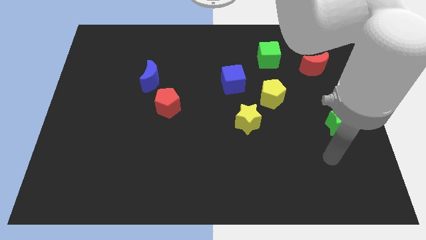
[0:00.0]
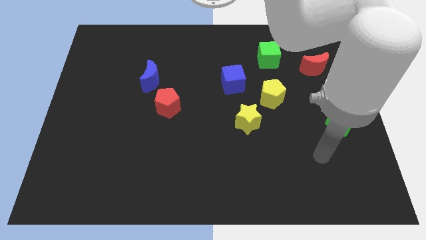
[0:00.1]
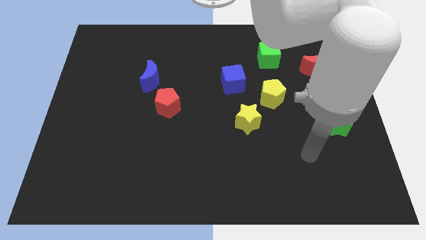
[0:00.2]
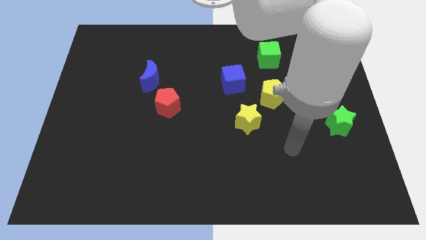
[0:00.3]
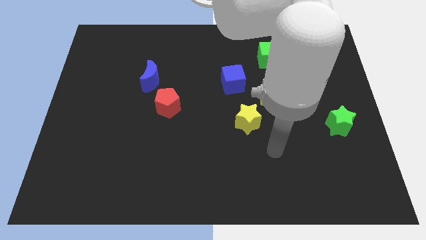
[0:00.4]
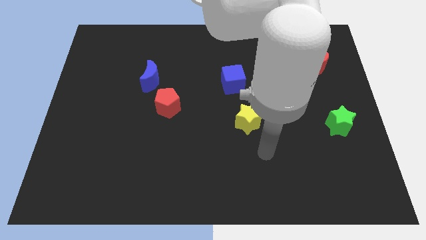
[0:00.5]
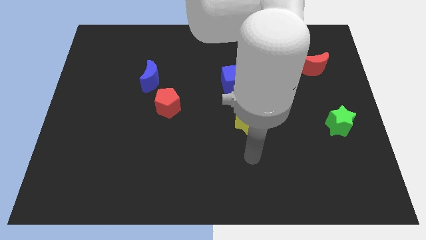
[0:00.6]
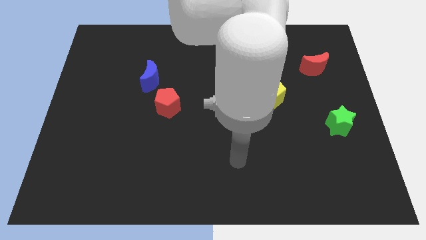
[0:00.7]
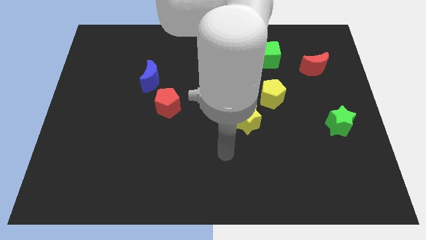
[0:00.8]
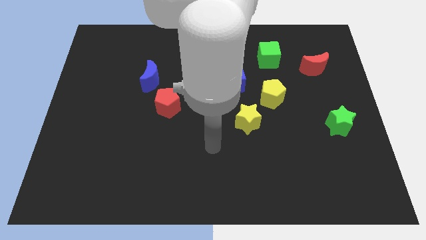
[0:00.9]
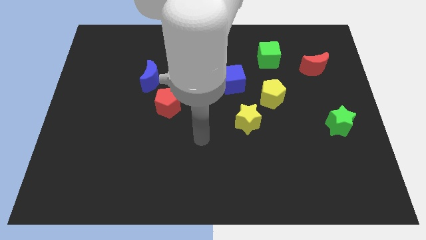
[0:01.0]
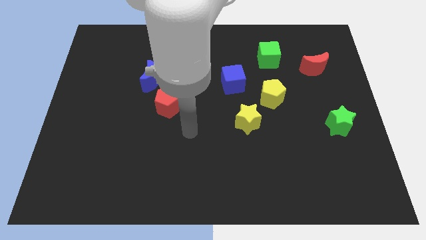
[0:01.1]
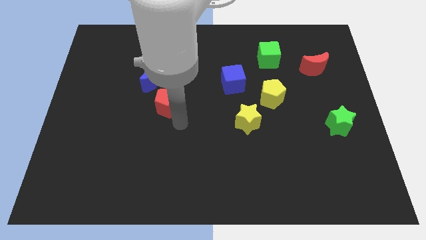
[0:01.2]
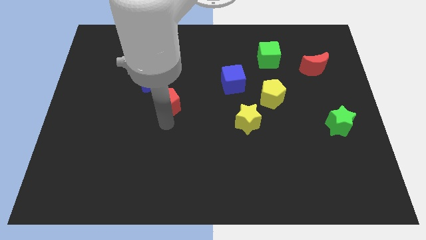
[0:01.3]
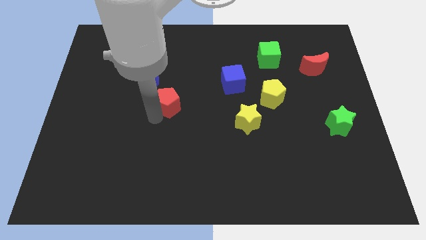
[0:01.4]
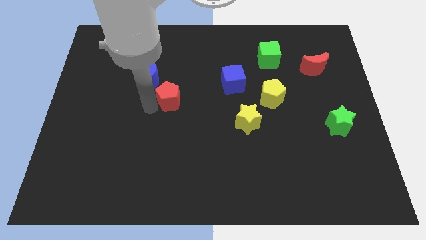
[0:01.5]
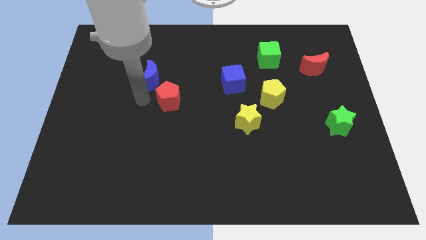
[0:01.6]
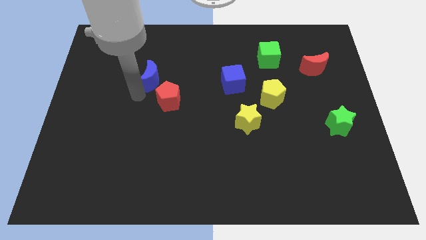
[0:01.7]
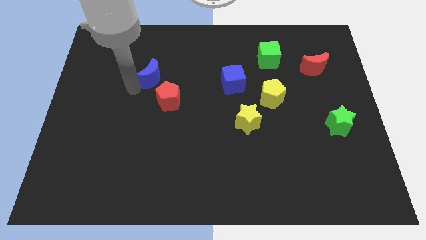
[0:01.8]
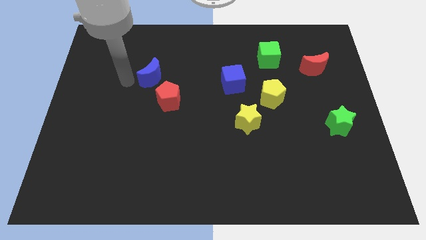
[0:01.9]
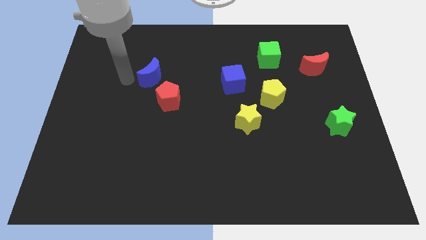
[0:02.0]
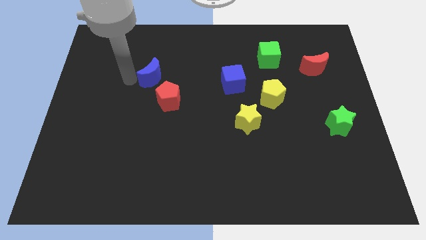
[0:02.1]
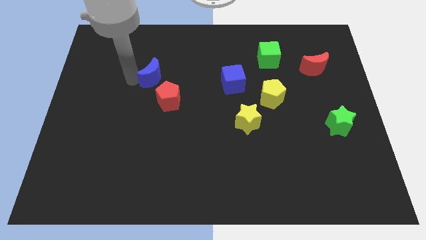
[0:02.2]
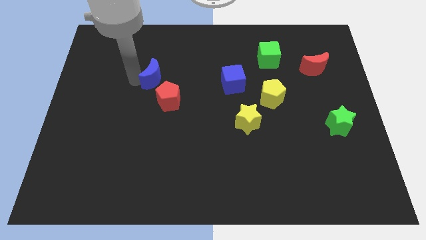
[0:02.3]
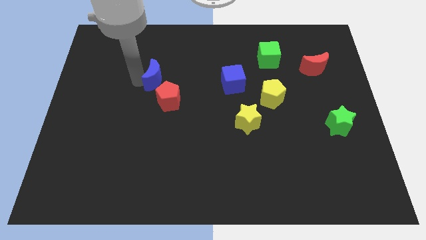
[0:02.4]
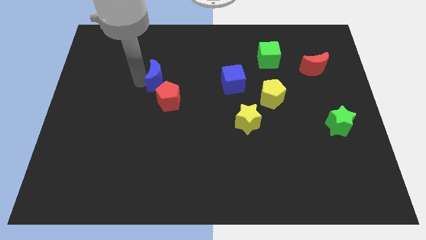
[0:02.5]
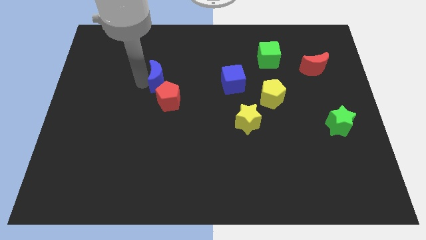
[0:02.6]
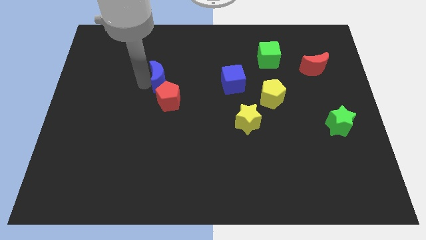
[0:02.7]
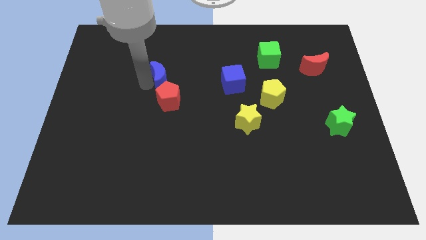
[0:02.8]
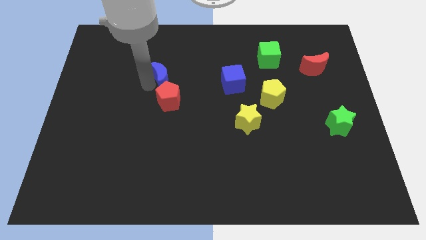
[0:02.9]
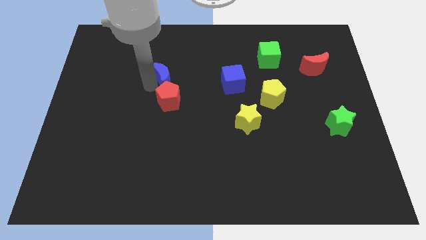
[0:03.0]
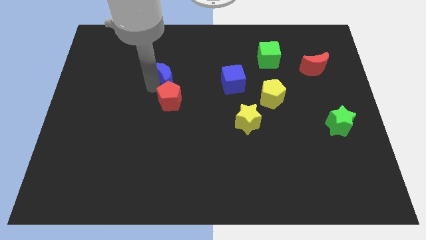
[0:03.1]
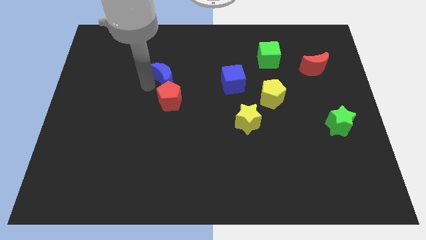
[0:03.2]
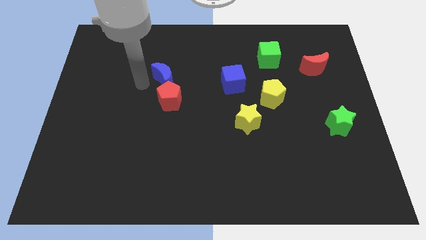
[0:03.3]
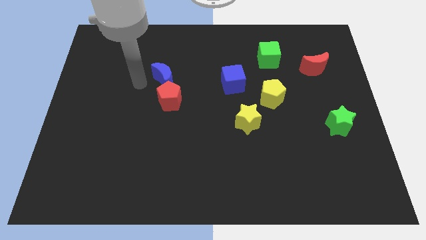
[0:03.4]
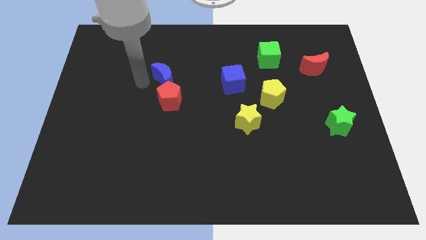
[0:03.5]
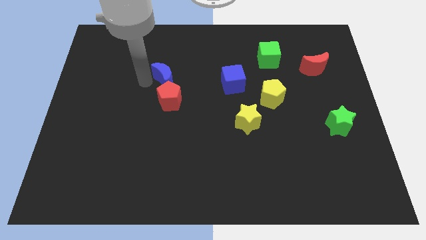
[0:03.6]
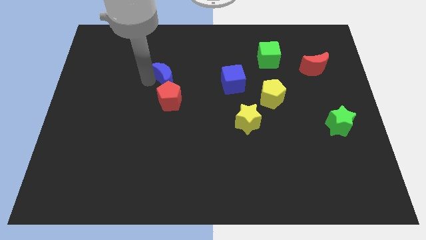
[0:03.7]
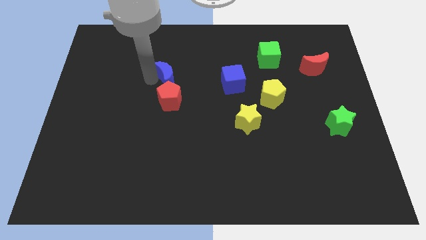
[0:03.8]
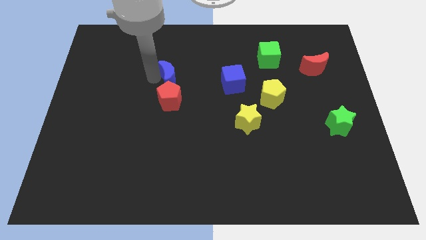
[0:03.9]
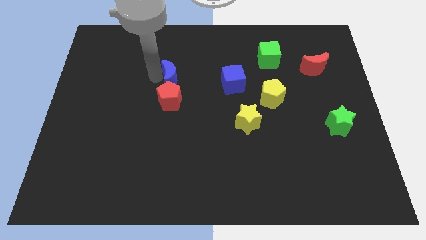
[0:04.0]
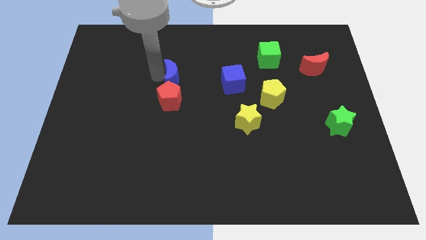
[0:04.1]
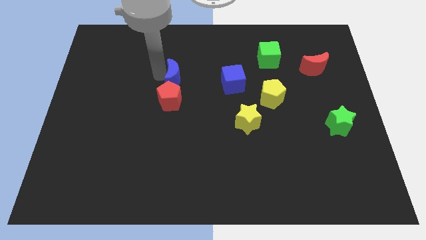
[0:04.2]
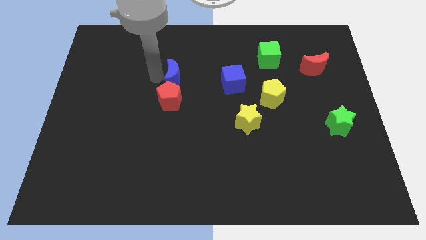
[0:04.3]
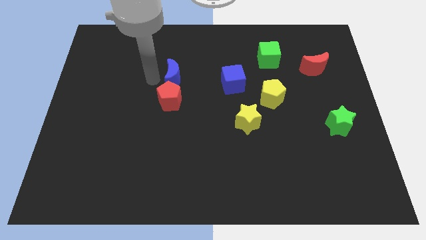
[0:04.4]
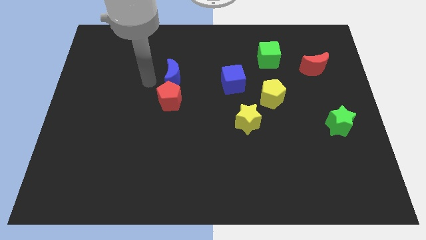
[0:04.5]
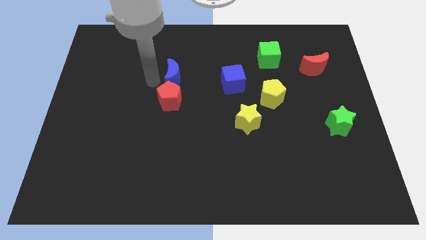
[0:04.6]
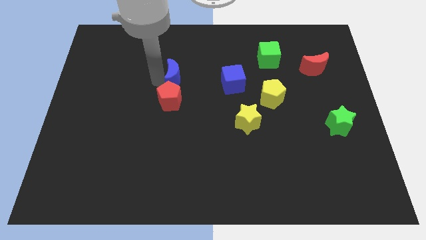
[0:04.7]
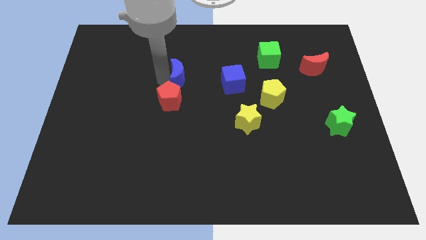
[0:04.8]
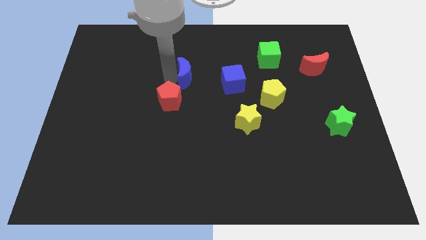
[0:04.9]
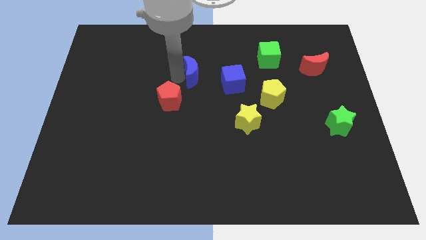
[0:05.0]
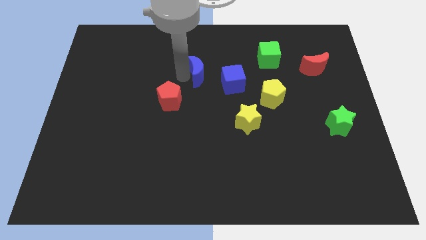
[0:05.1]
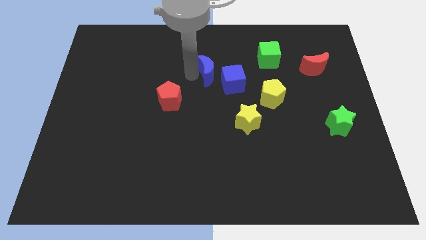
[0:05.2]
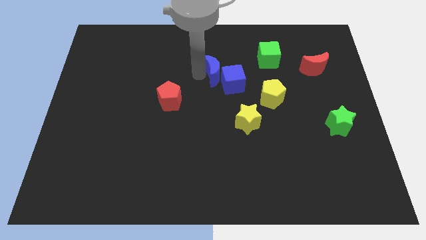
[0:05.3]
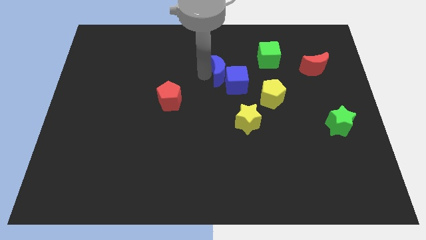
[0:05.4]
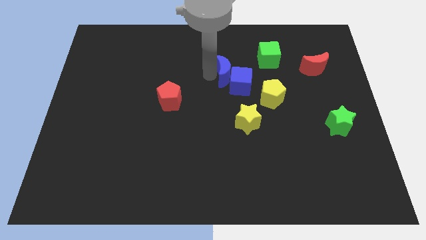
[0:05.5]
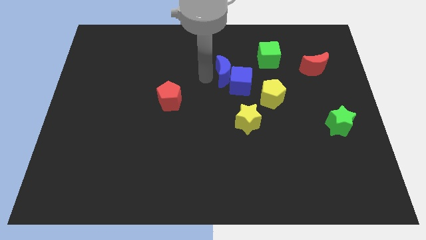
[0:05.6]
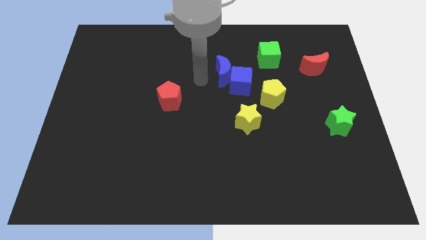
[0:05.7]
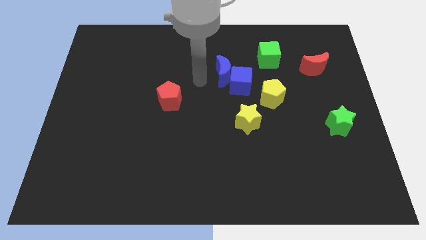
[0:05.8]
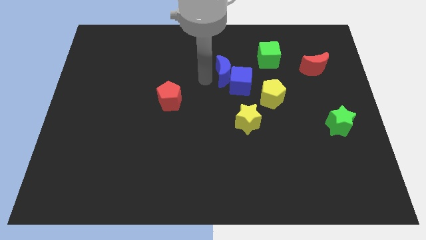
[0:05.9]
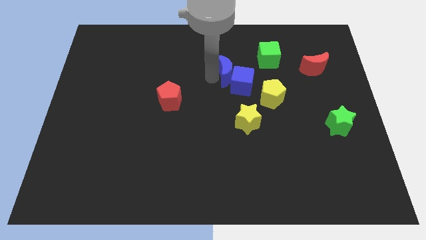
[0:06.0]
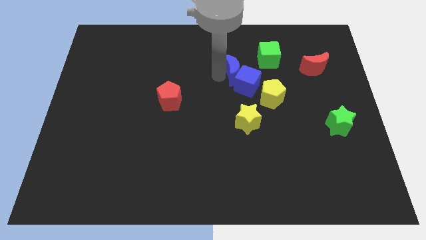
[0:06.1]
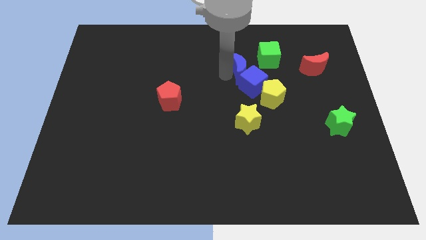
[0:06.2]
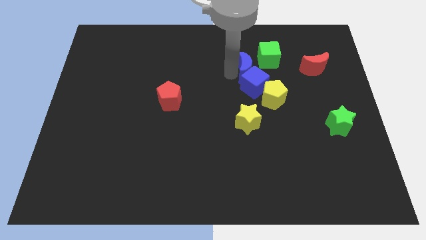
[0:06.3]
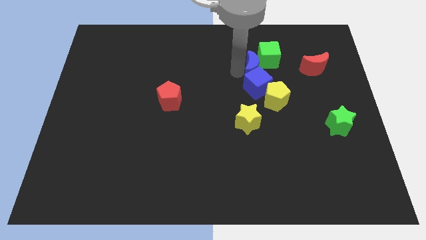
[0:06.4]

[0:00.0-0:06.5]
move the blue moon just left of the red moon
